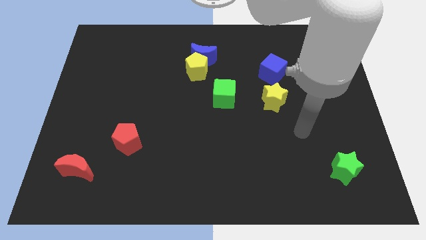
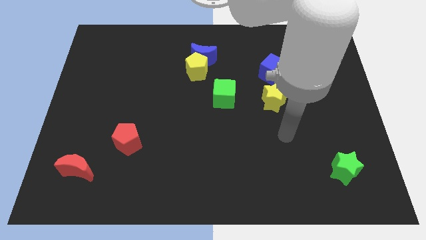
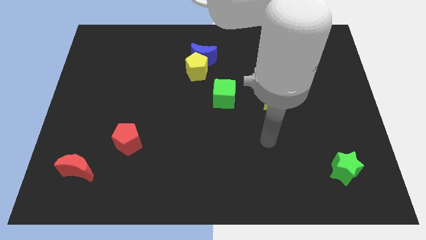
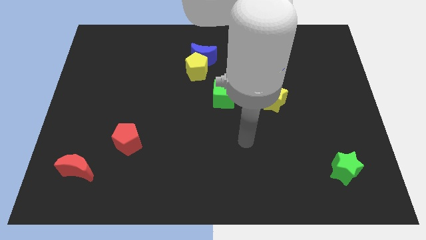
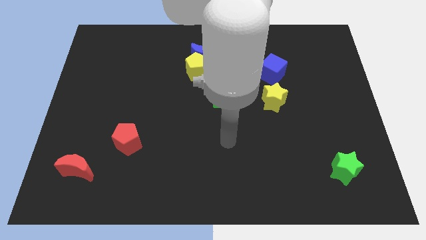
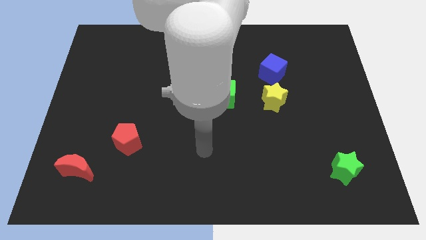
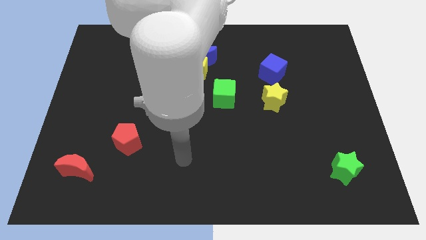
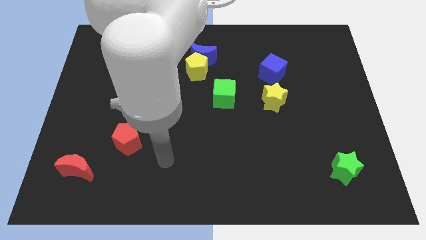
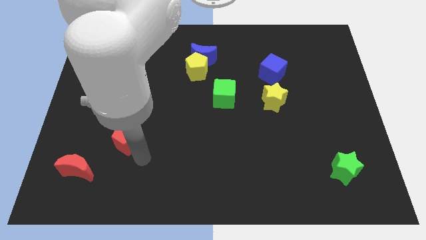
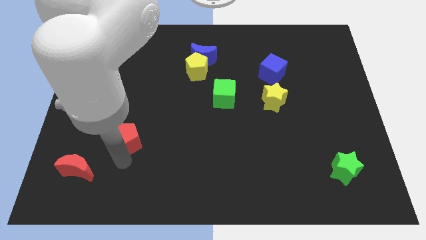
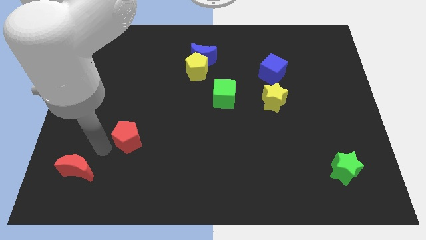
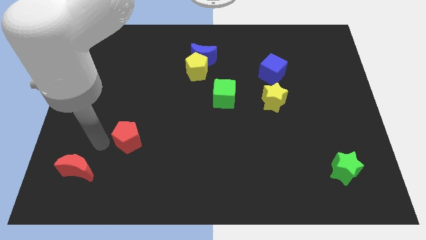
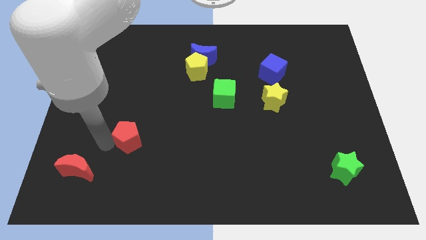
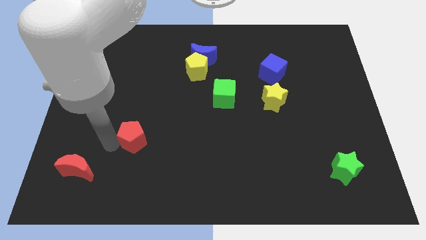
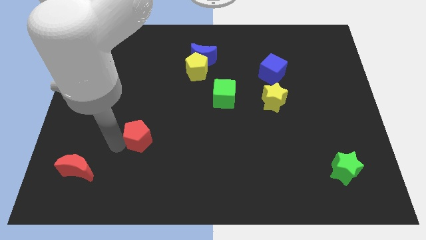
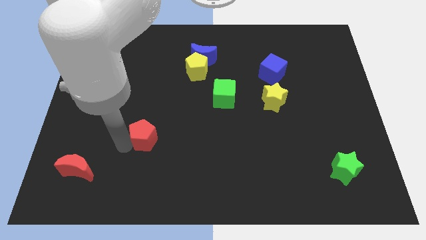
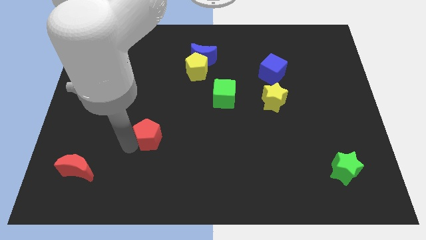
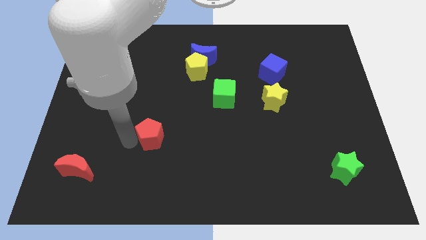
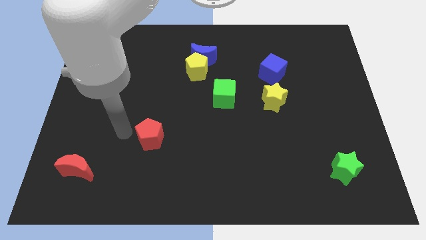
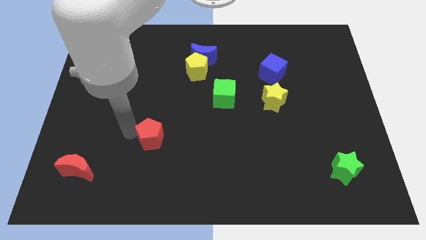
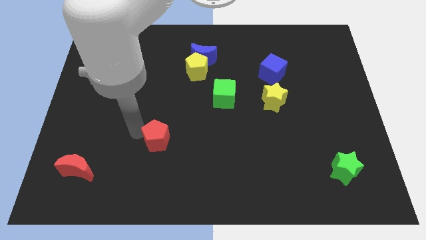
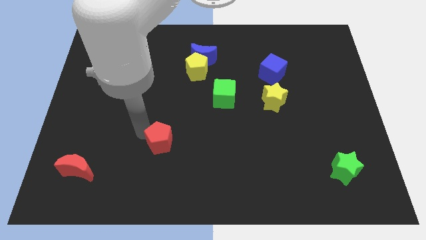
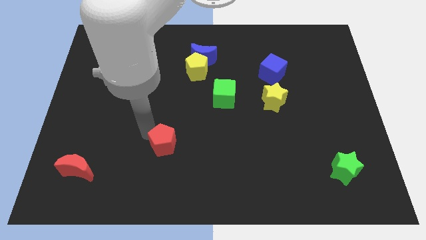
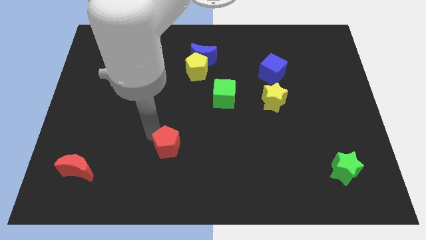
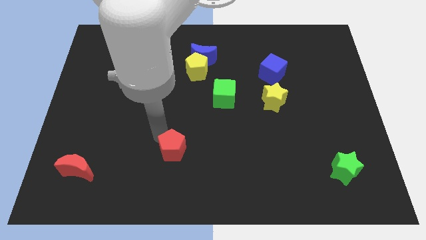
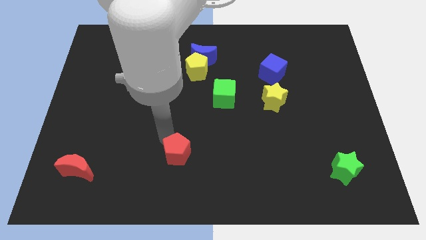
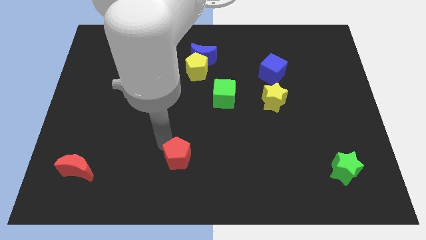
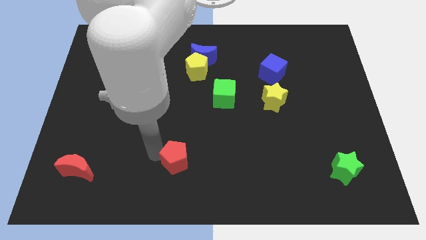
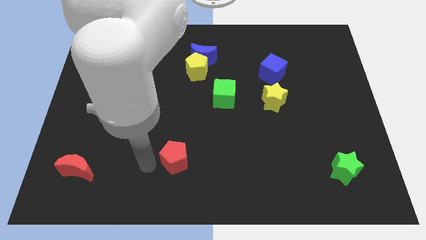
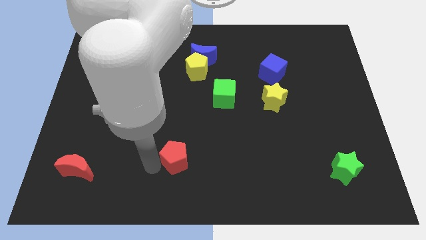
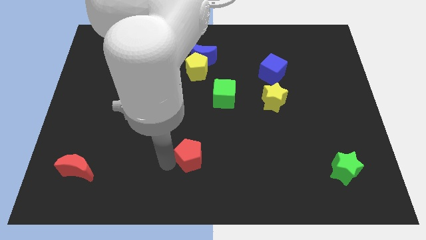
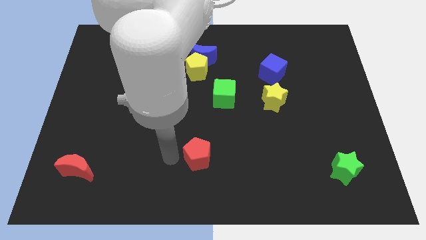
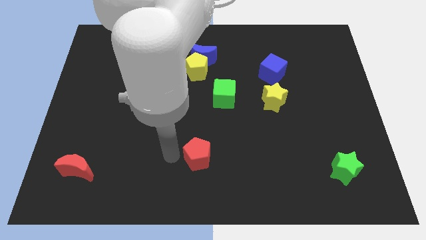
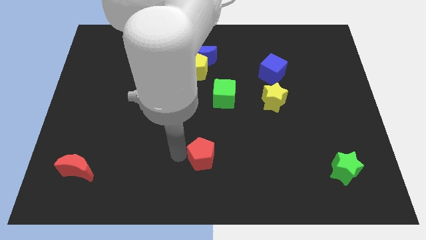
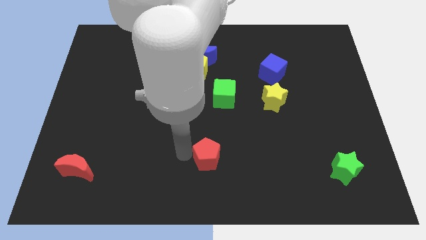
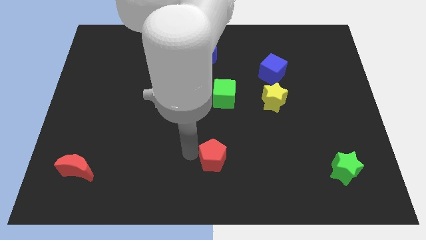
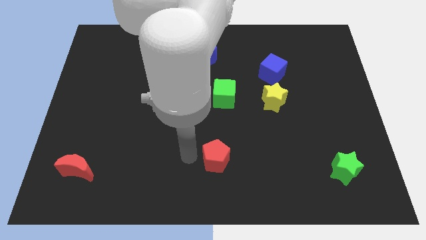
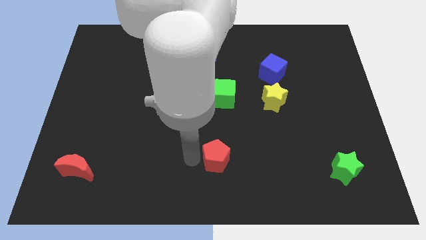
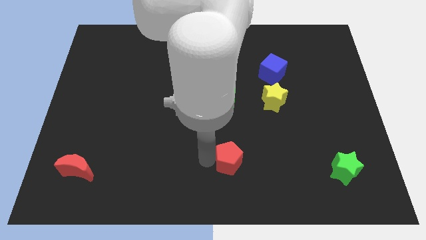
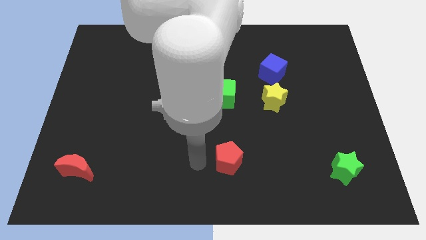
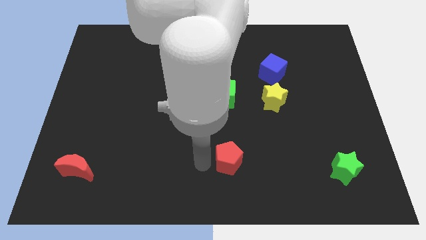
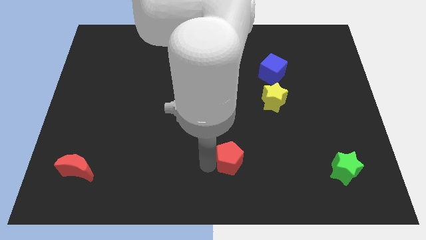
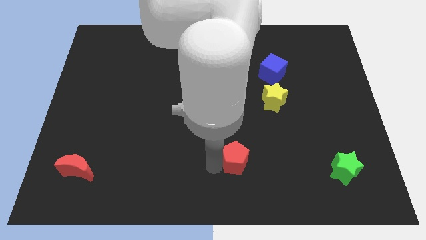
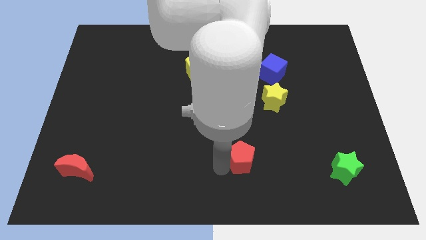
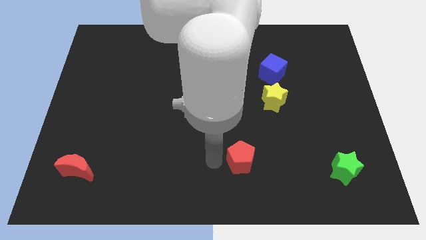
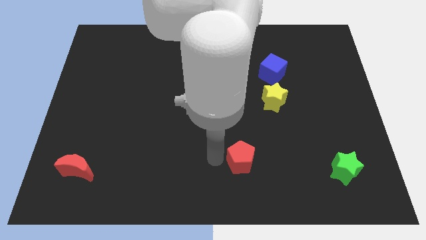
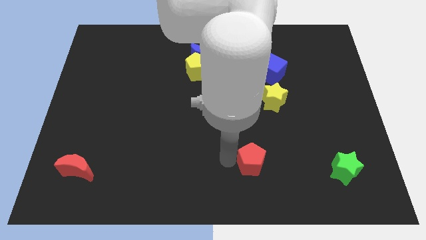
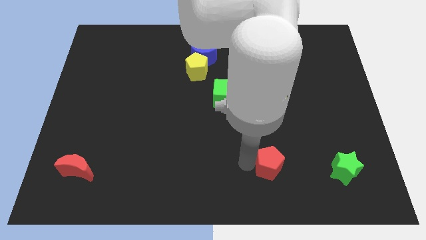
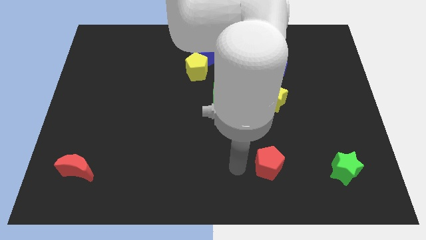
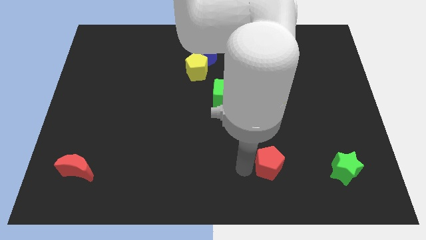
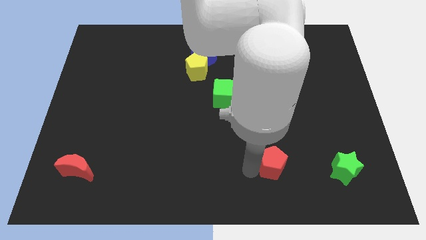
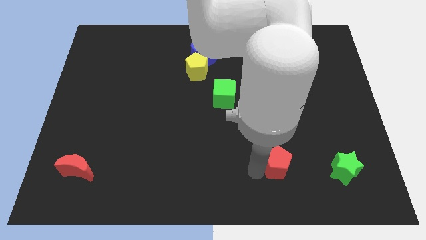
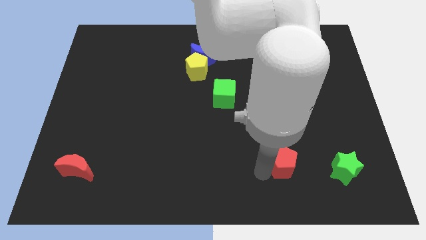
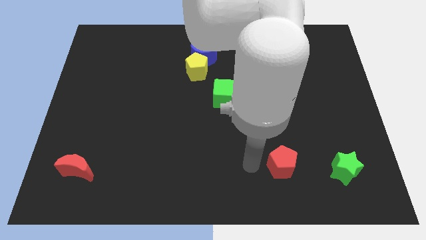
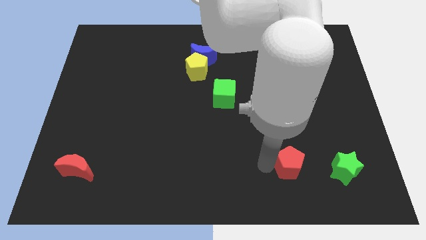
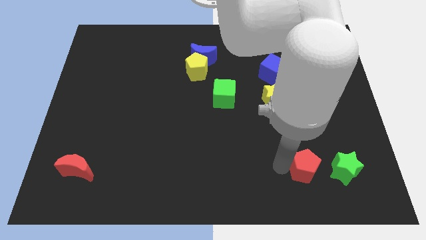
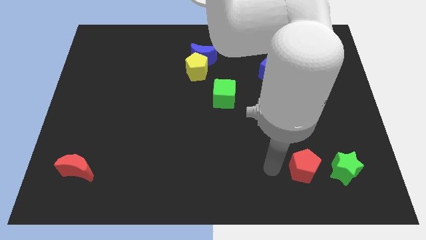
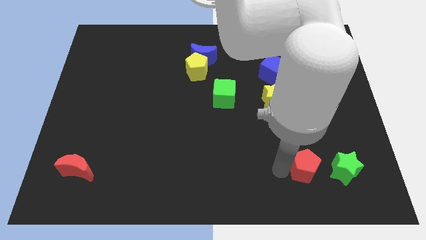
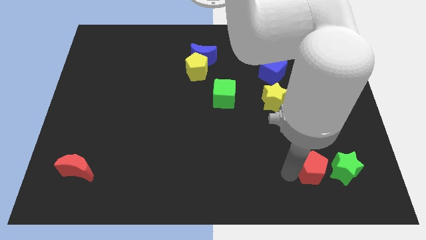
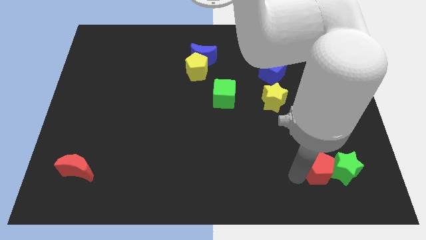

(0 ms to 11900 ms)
push the red pentagon close to the green star

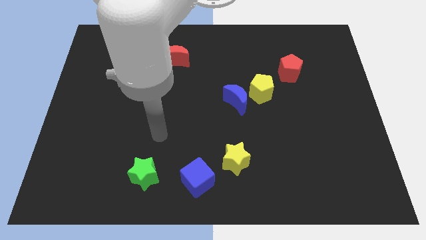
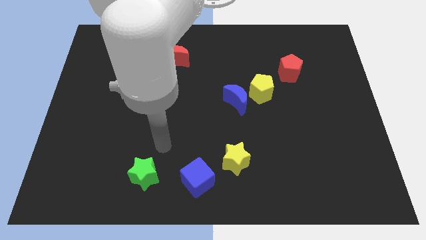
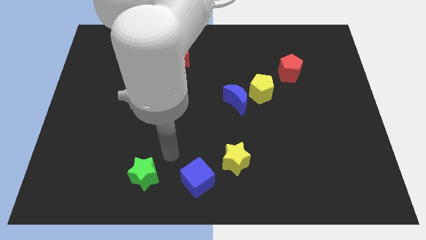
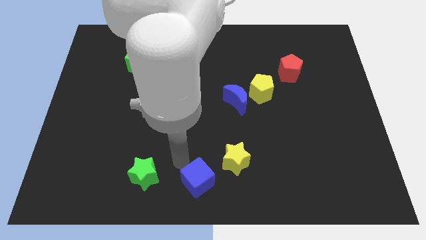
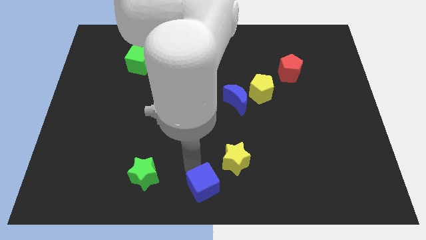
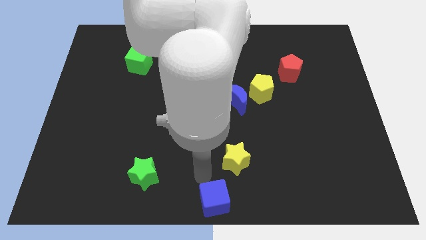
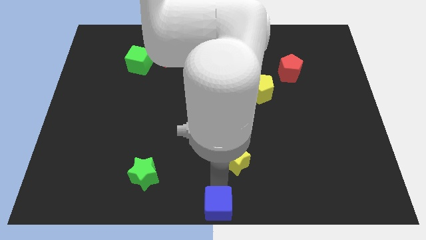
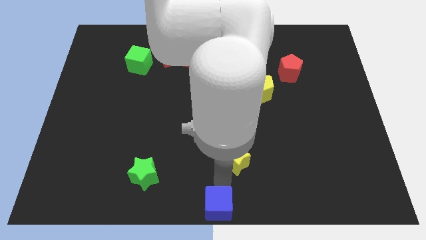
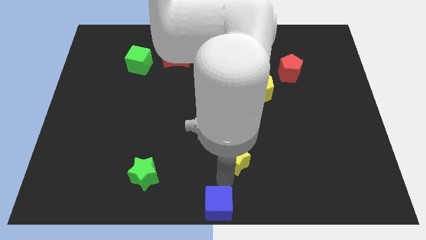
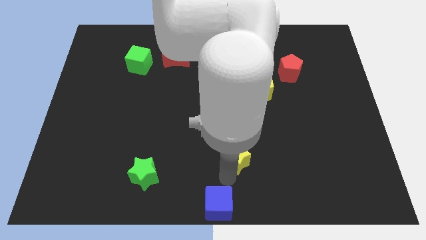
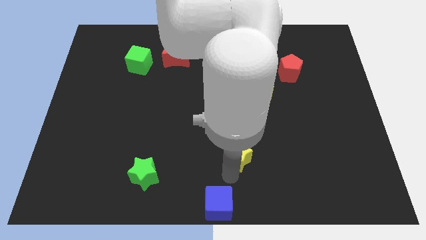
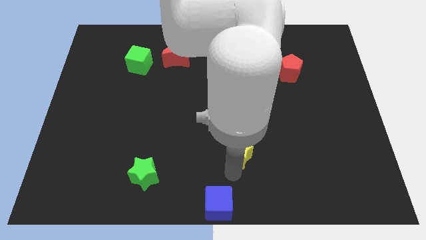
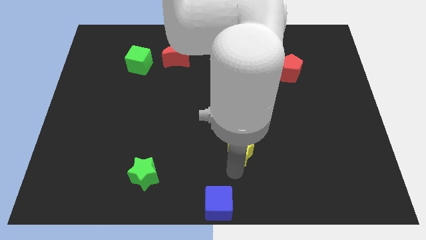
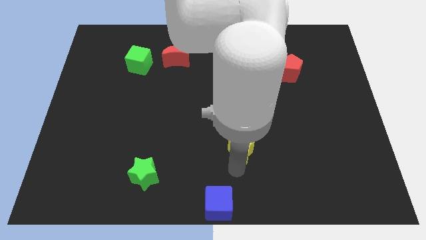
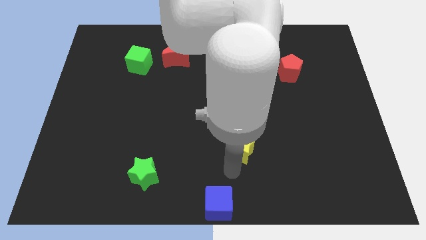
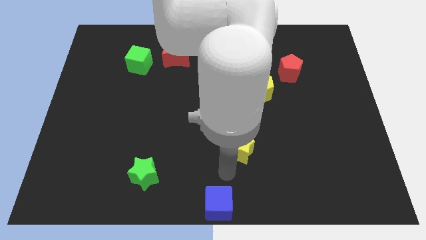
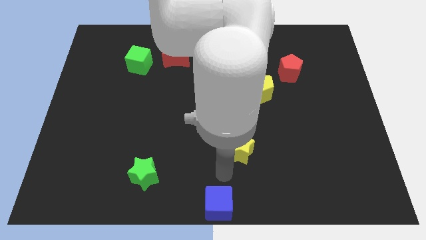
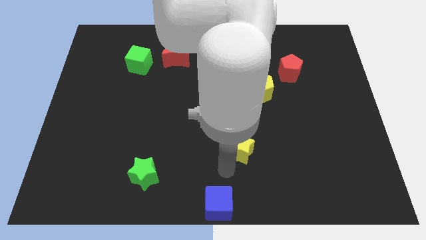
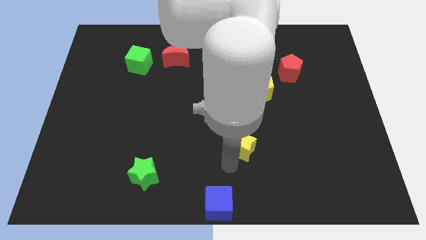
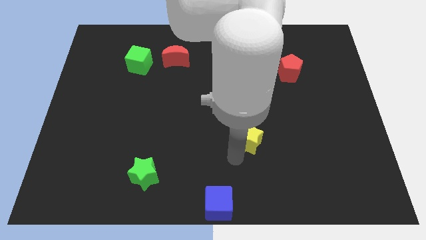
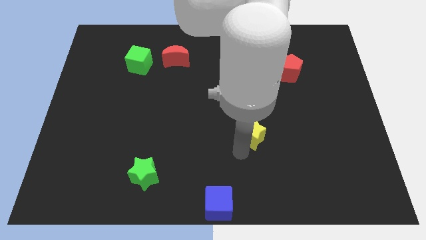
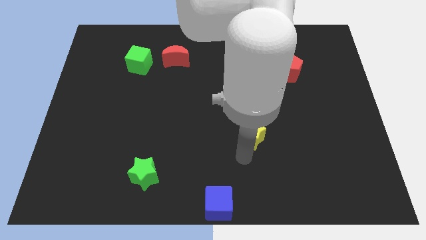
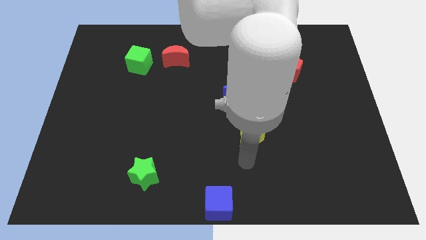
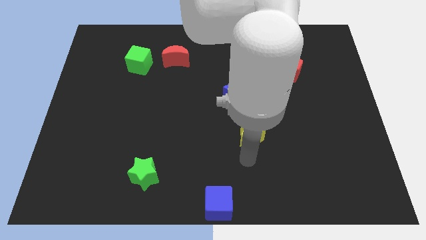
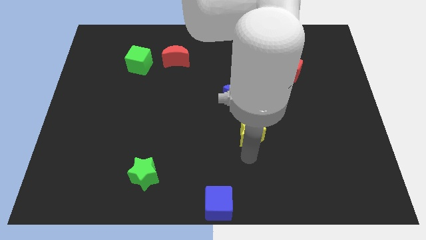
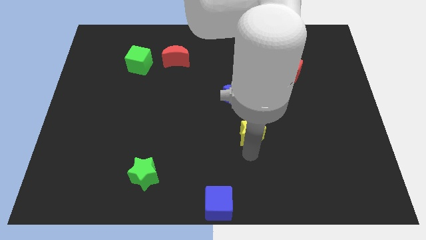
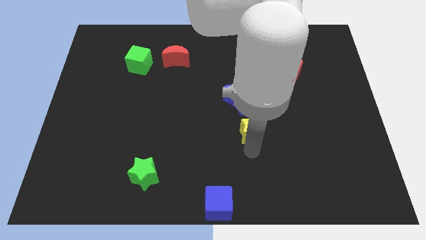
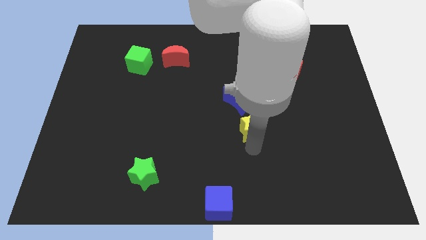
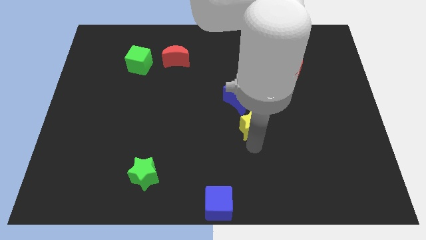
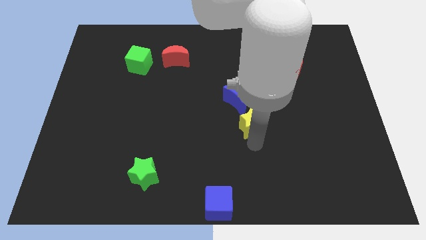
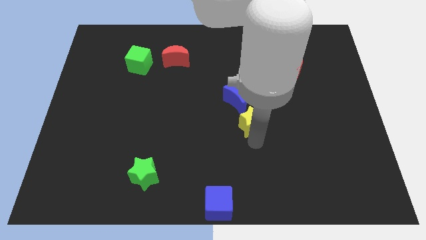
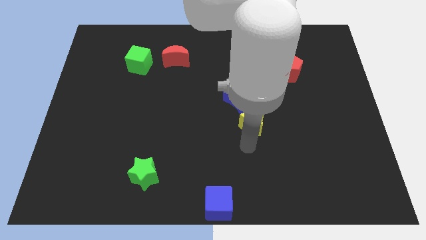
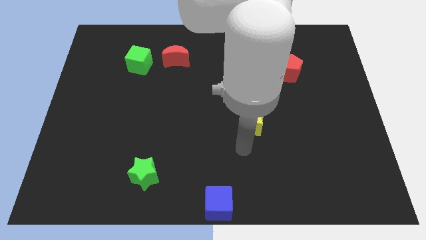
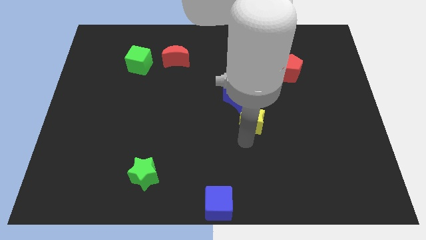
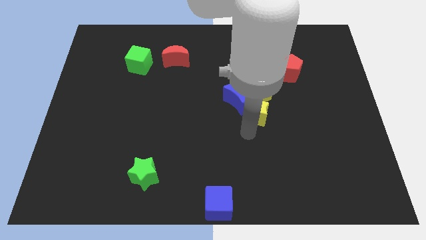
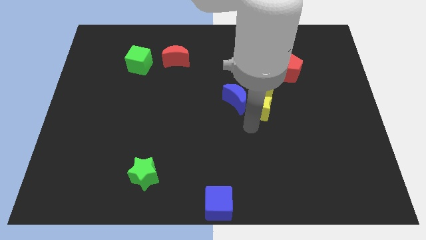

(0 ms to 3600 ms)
put the yellow star to the yellow pentagon
